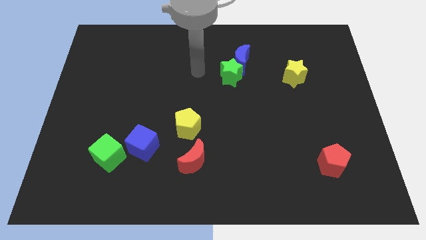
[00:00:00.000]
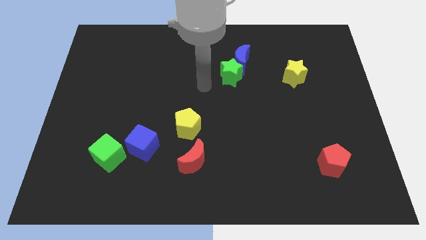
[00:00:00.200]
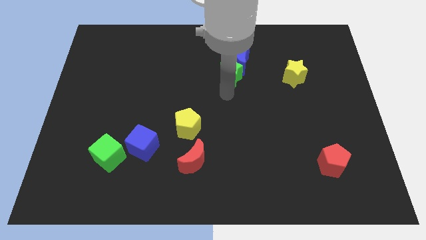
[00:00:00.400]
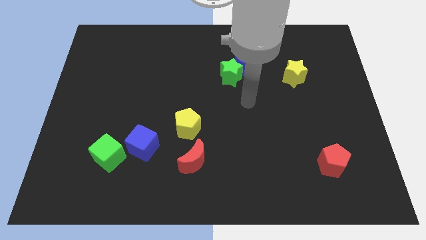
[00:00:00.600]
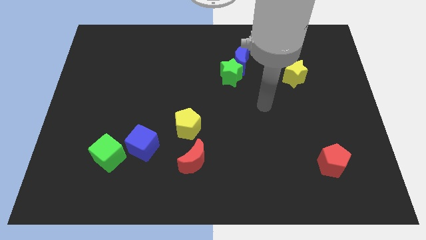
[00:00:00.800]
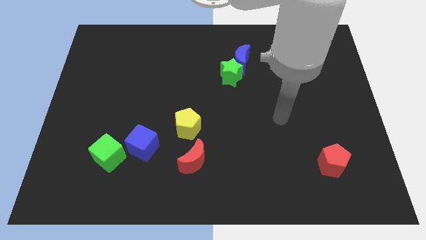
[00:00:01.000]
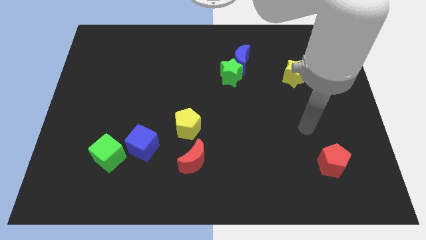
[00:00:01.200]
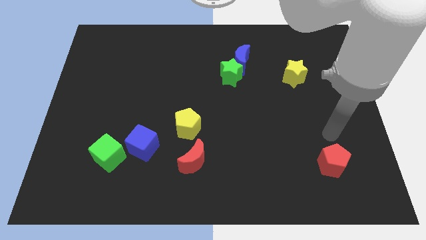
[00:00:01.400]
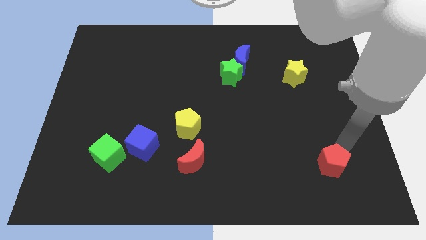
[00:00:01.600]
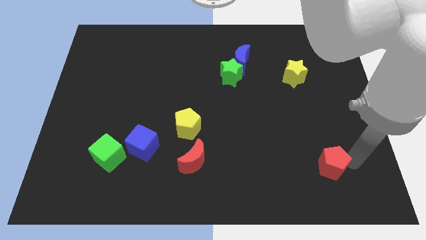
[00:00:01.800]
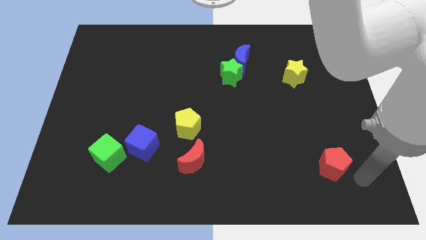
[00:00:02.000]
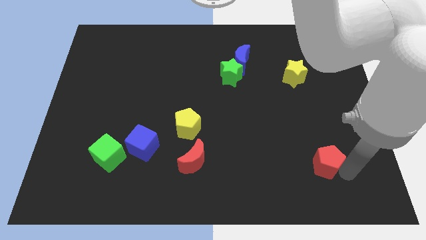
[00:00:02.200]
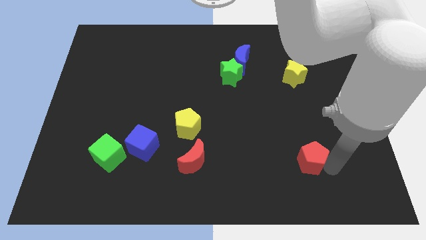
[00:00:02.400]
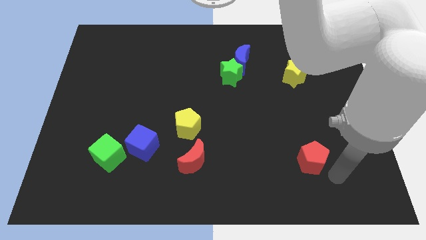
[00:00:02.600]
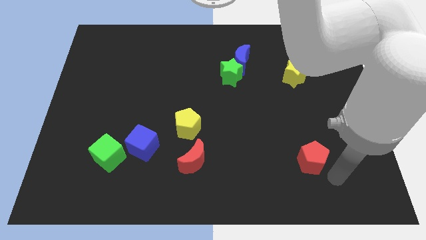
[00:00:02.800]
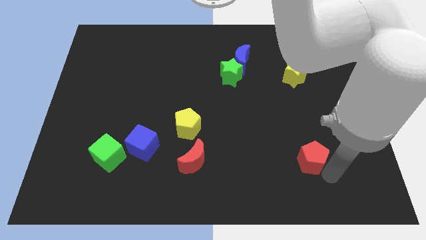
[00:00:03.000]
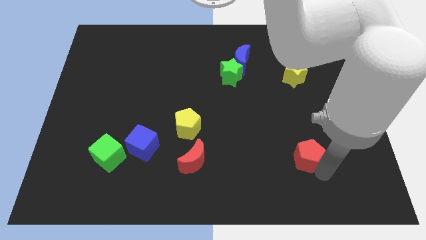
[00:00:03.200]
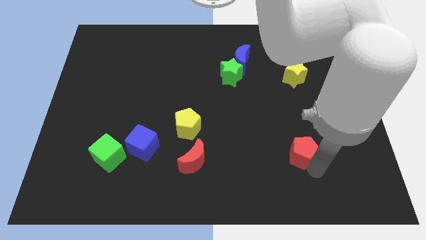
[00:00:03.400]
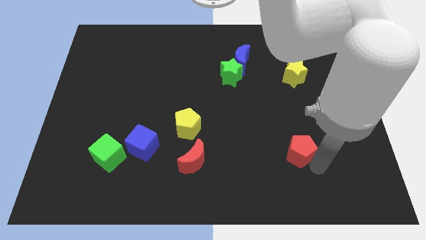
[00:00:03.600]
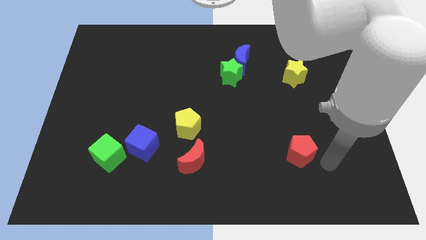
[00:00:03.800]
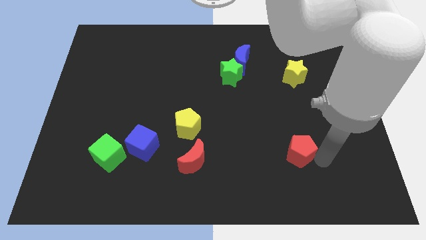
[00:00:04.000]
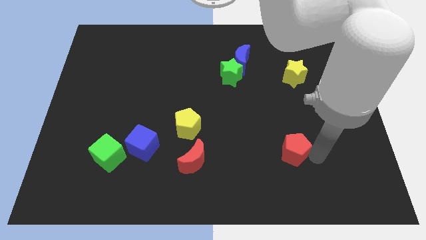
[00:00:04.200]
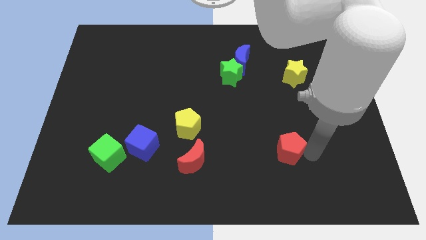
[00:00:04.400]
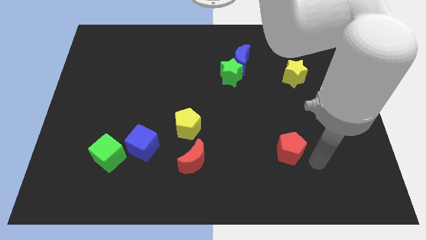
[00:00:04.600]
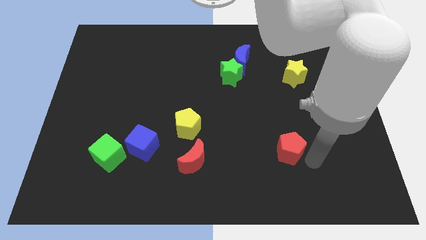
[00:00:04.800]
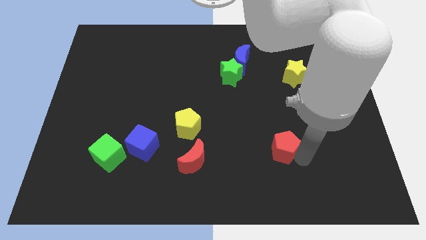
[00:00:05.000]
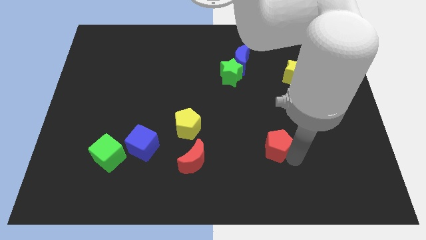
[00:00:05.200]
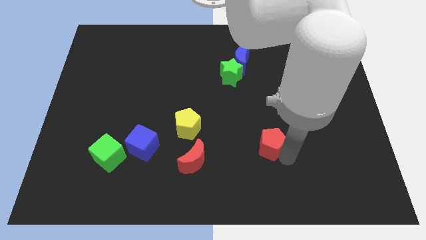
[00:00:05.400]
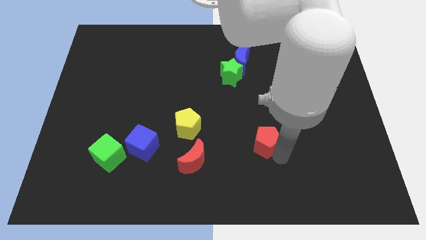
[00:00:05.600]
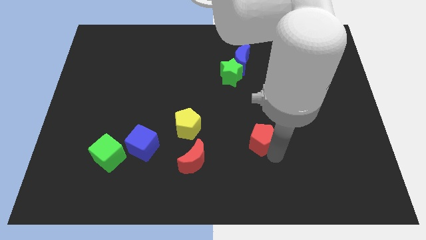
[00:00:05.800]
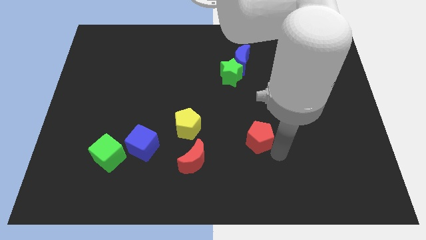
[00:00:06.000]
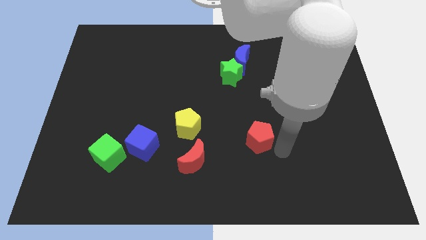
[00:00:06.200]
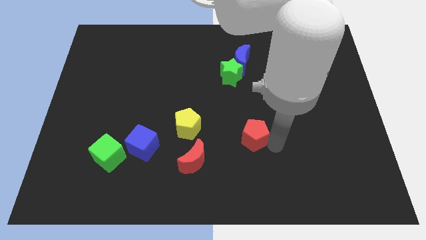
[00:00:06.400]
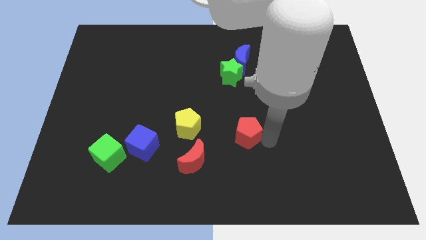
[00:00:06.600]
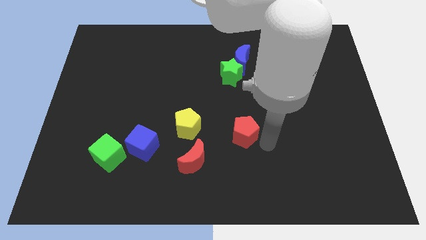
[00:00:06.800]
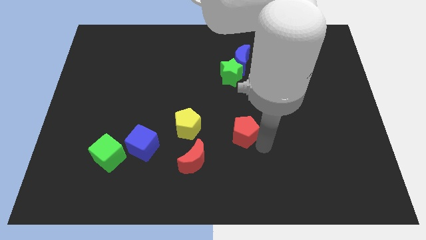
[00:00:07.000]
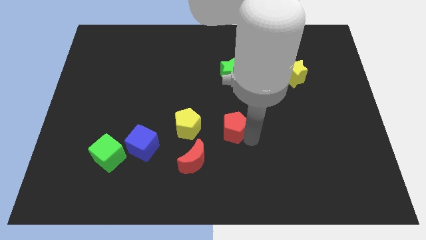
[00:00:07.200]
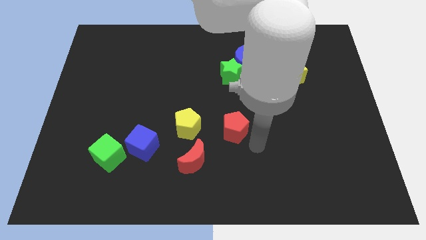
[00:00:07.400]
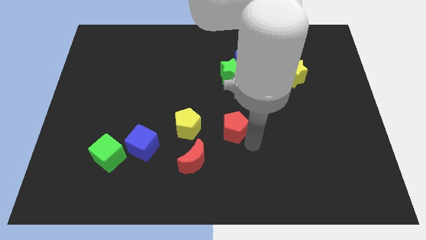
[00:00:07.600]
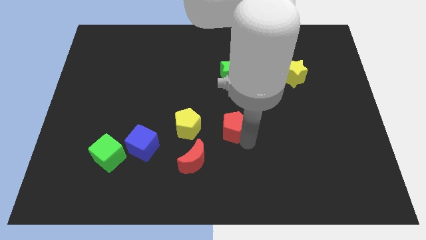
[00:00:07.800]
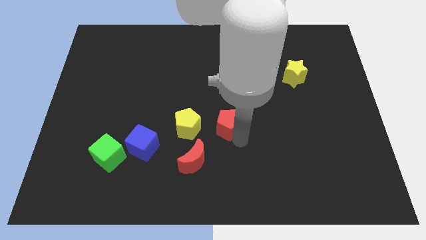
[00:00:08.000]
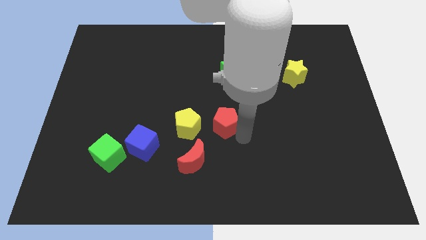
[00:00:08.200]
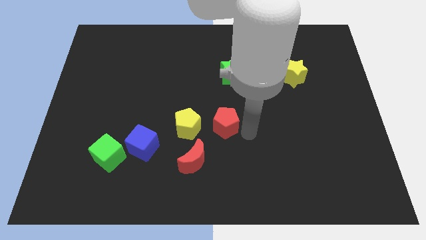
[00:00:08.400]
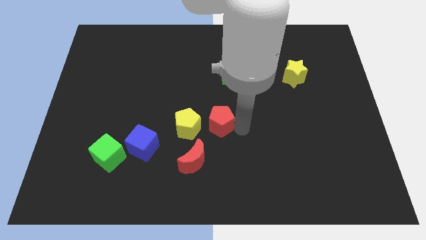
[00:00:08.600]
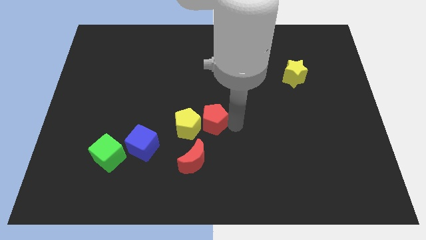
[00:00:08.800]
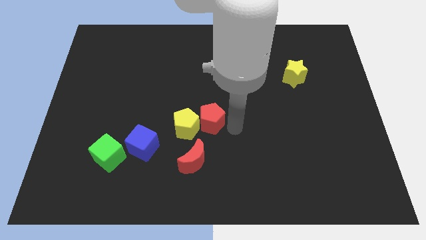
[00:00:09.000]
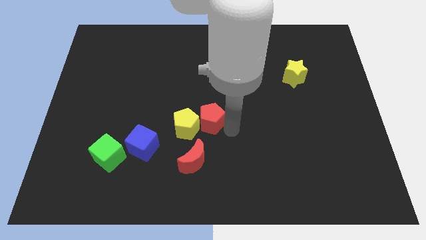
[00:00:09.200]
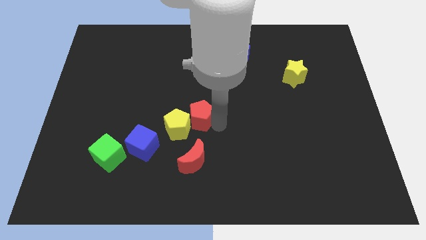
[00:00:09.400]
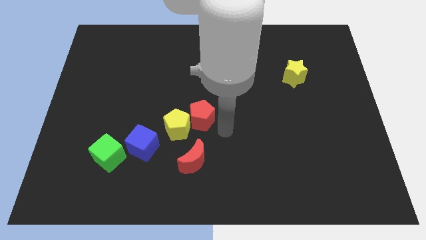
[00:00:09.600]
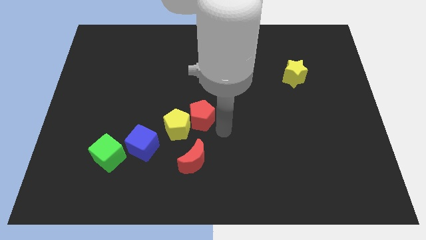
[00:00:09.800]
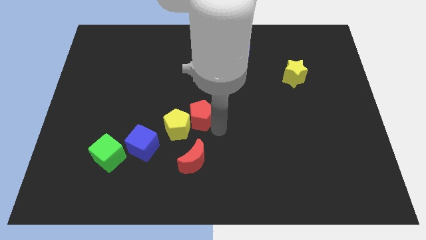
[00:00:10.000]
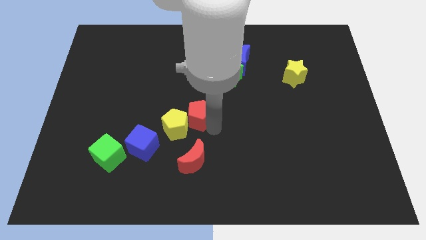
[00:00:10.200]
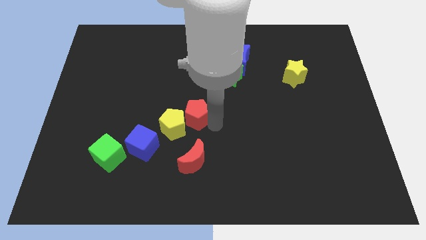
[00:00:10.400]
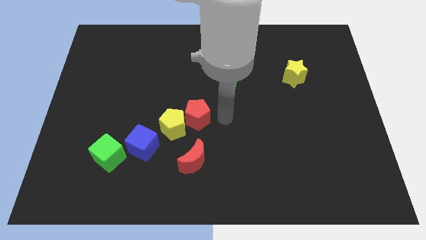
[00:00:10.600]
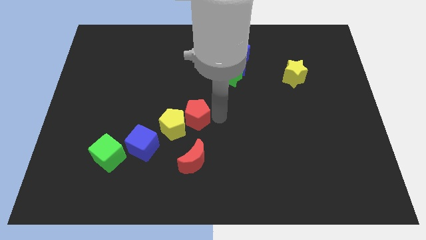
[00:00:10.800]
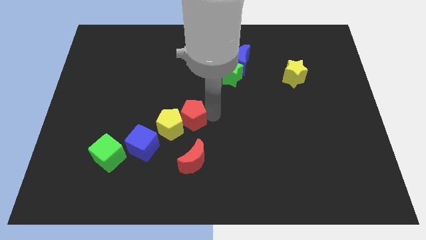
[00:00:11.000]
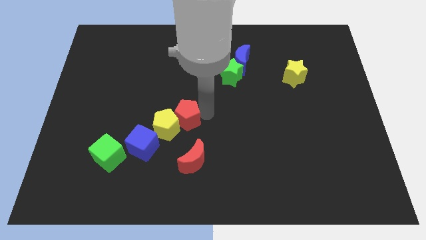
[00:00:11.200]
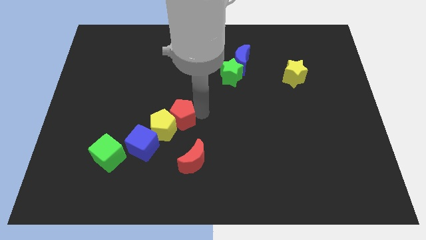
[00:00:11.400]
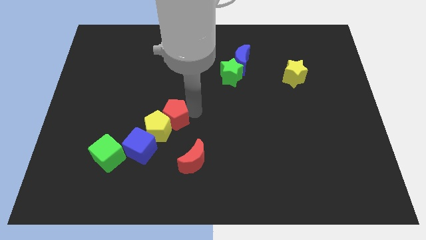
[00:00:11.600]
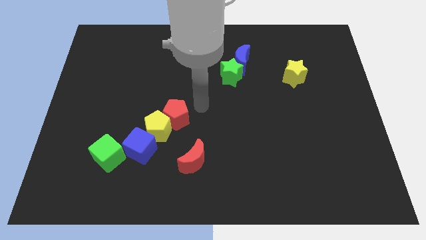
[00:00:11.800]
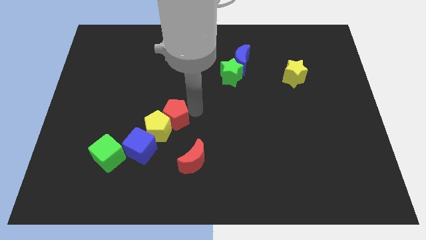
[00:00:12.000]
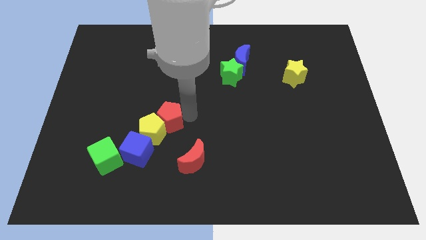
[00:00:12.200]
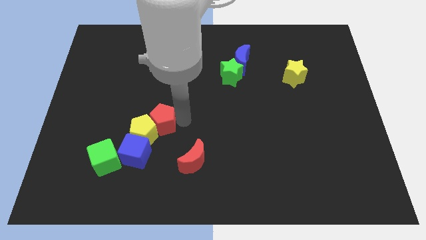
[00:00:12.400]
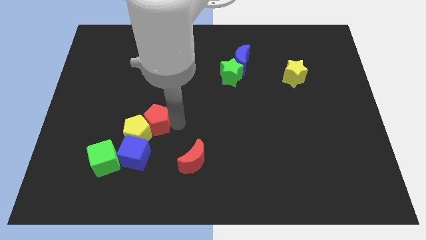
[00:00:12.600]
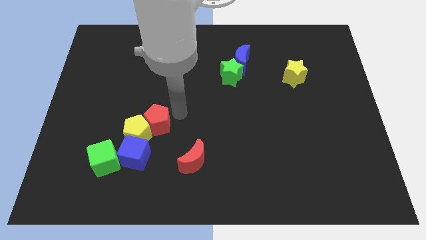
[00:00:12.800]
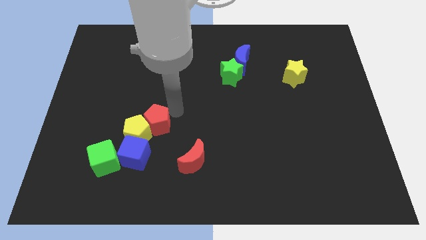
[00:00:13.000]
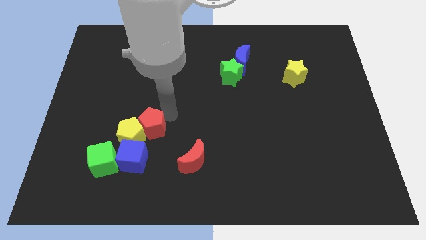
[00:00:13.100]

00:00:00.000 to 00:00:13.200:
slide the red pentagon to the top right side of the green cube
